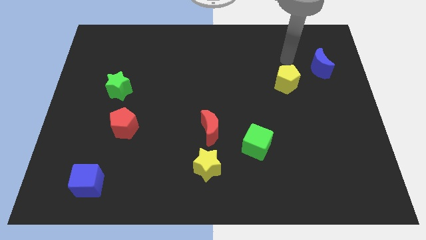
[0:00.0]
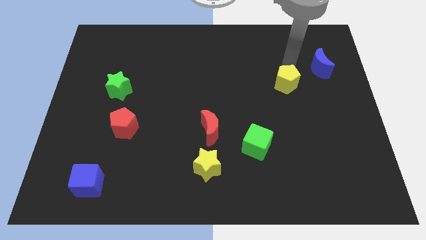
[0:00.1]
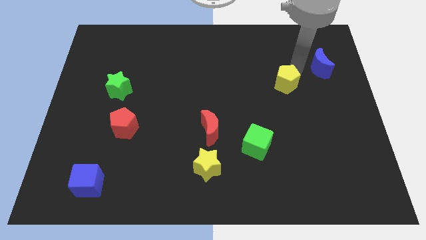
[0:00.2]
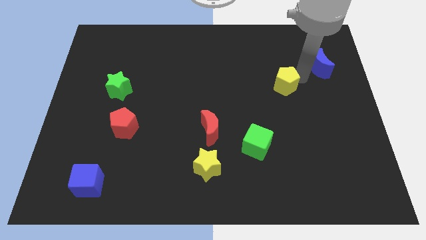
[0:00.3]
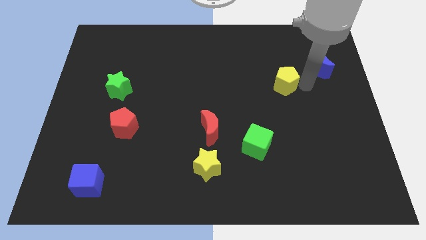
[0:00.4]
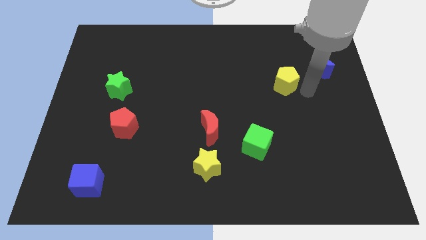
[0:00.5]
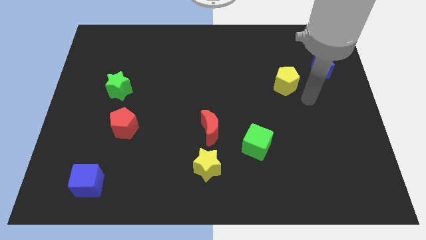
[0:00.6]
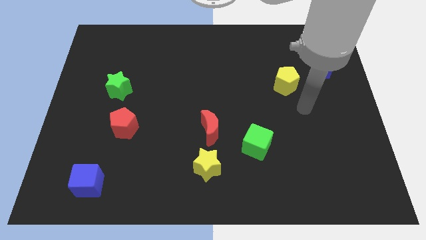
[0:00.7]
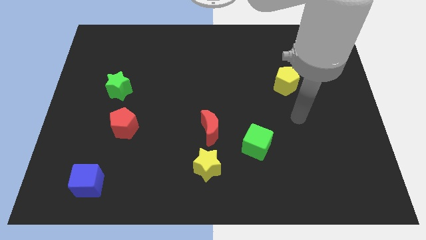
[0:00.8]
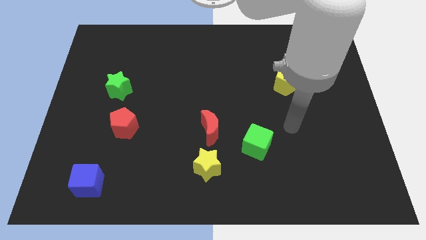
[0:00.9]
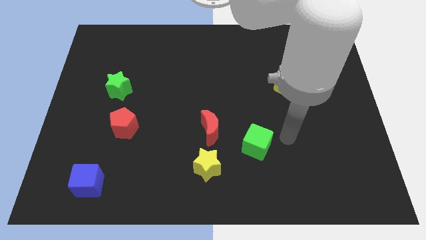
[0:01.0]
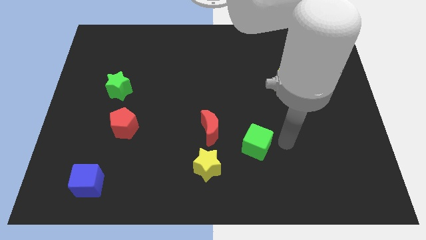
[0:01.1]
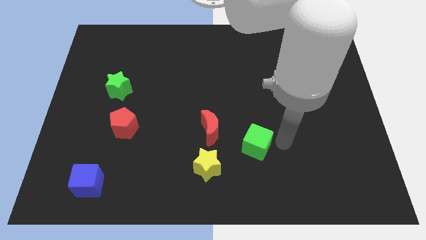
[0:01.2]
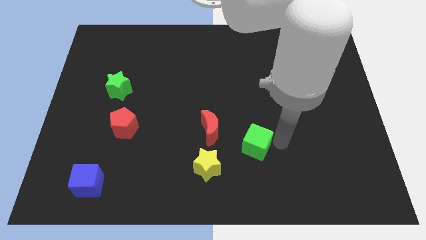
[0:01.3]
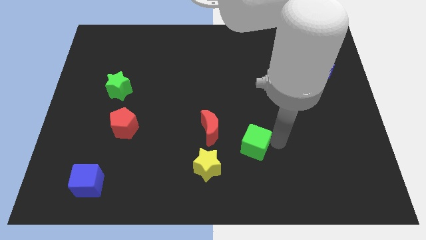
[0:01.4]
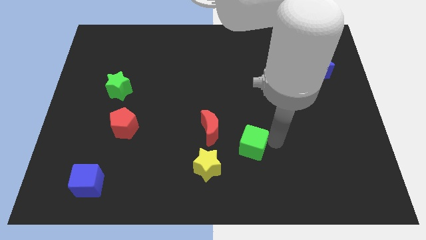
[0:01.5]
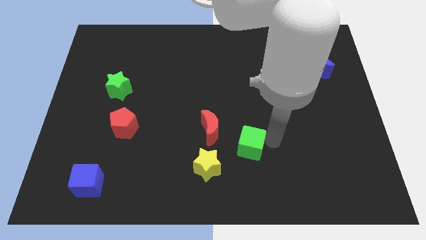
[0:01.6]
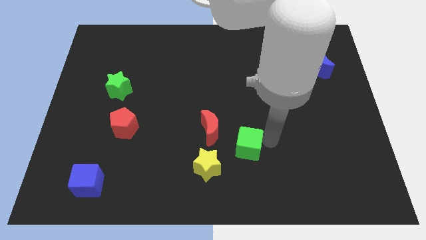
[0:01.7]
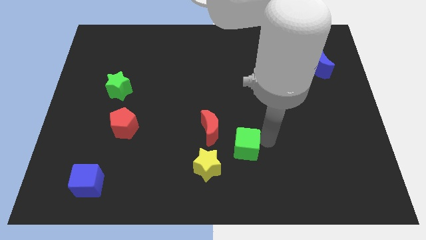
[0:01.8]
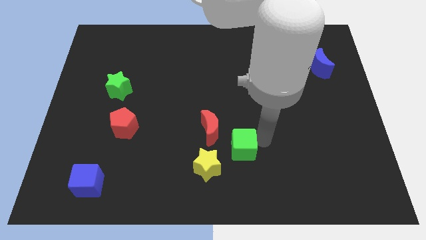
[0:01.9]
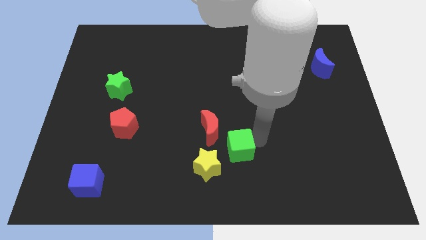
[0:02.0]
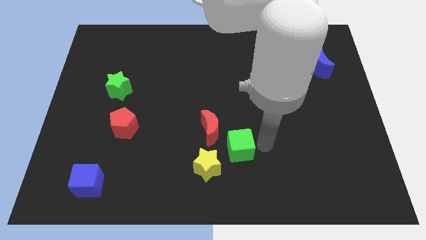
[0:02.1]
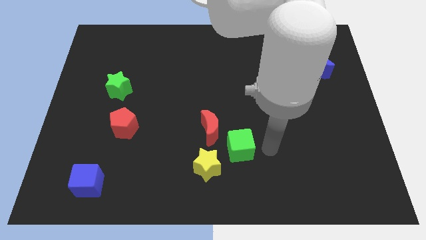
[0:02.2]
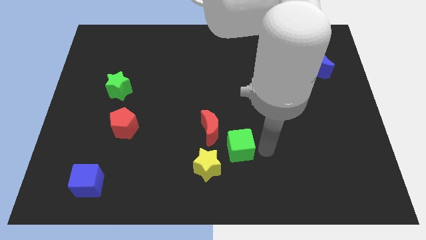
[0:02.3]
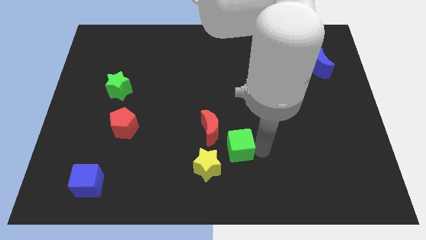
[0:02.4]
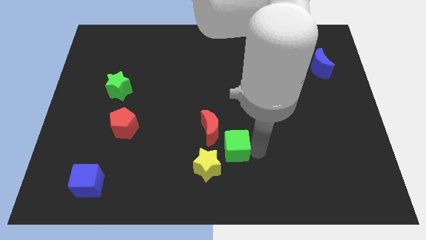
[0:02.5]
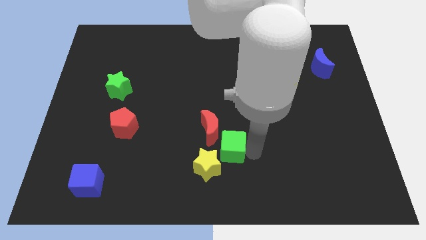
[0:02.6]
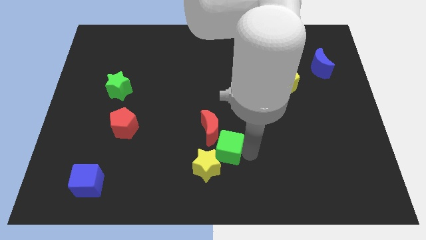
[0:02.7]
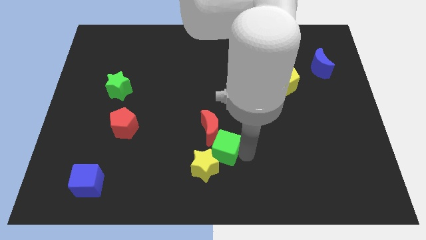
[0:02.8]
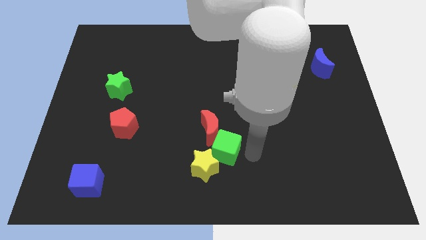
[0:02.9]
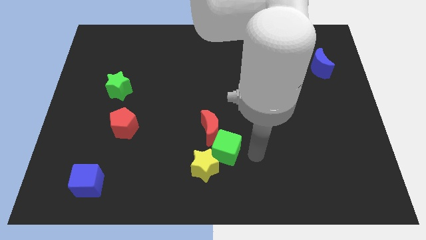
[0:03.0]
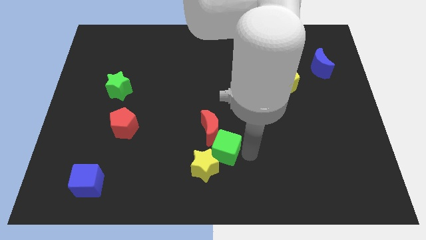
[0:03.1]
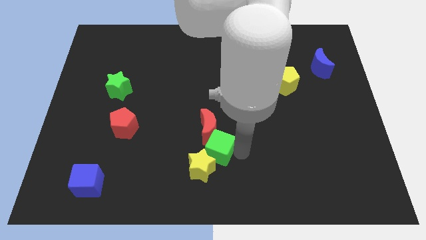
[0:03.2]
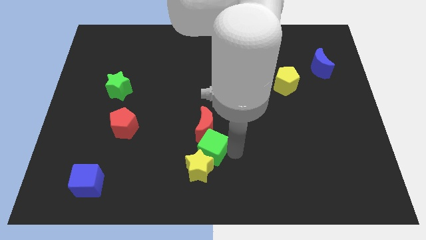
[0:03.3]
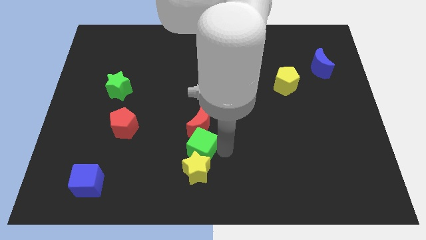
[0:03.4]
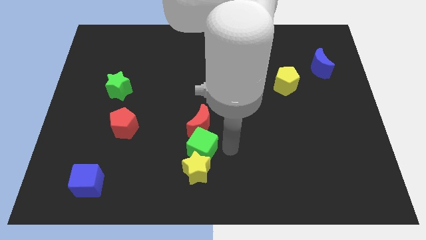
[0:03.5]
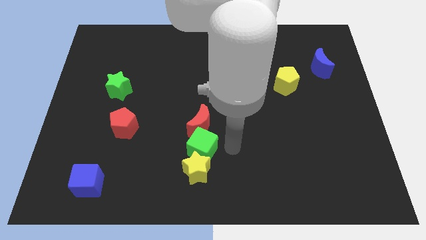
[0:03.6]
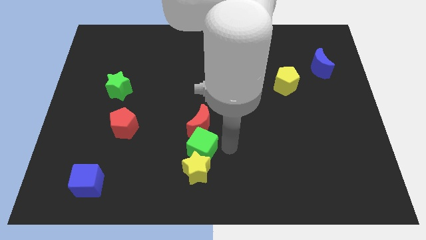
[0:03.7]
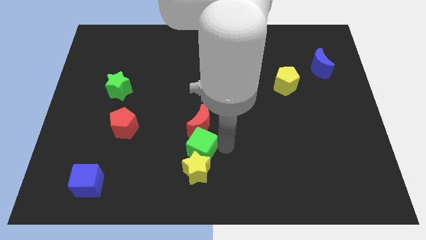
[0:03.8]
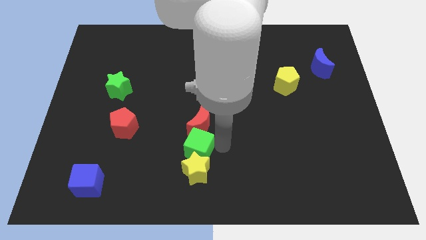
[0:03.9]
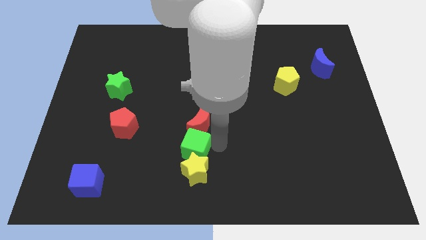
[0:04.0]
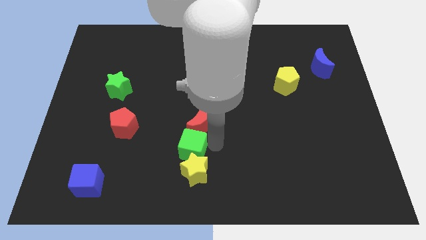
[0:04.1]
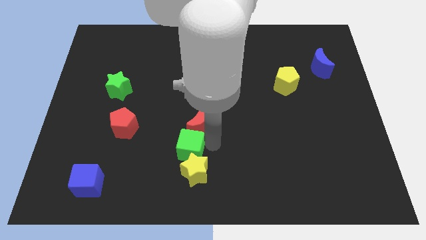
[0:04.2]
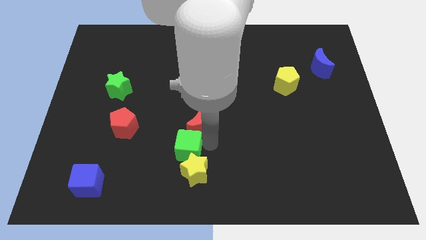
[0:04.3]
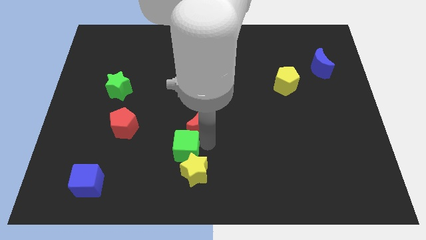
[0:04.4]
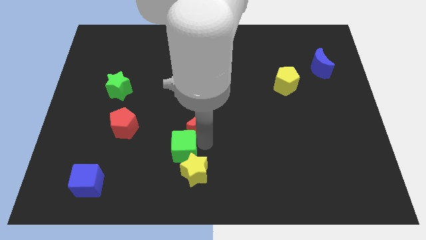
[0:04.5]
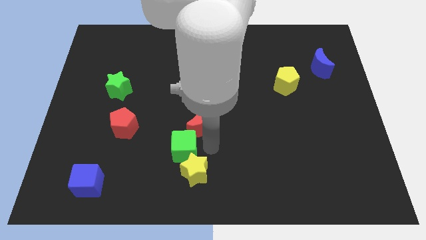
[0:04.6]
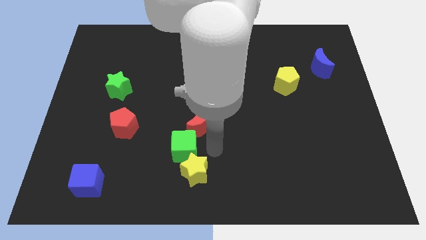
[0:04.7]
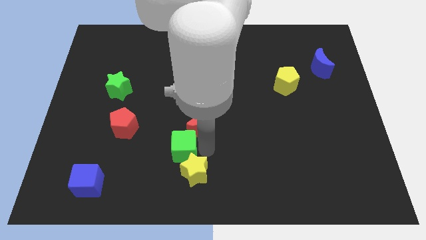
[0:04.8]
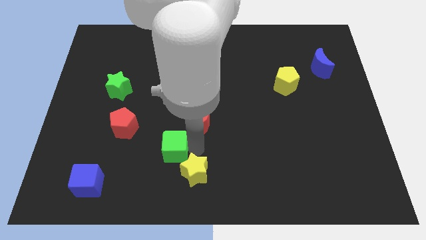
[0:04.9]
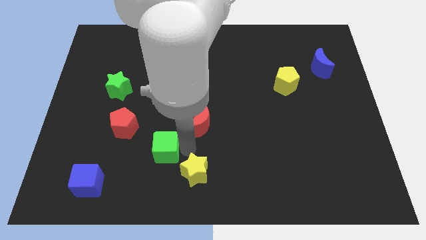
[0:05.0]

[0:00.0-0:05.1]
slide the green cube to the bottom right side of the red pentagon

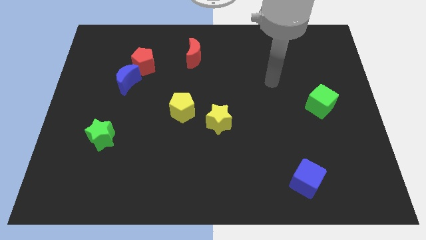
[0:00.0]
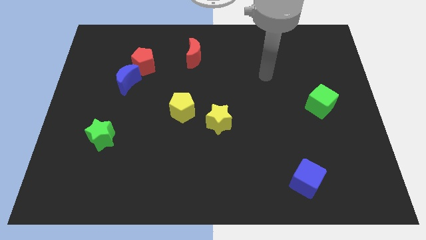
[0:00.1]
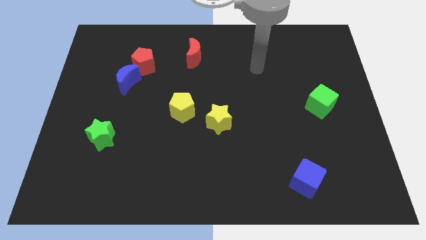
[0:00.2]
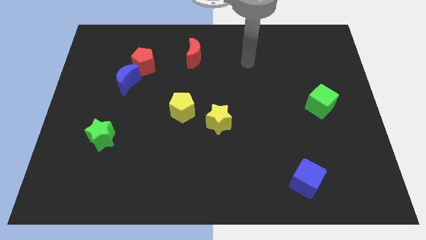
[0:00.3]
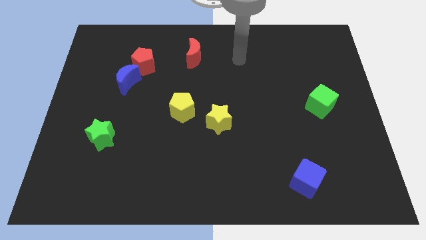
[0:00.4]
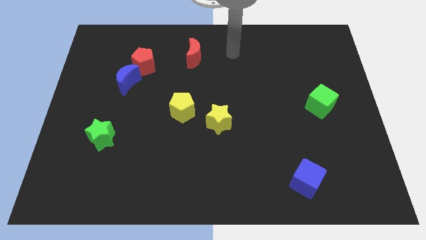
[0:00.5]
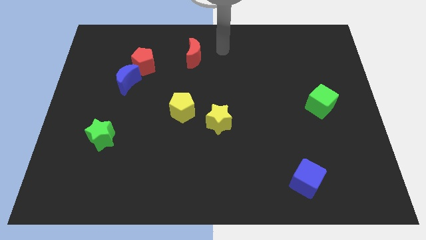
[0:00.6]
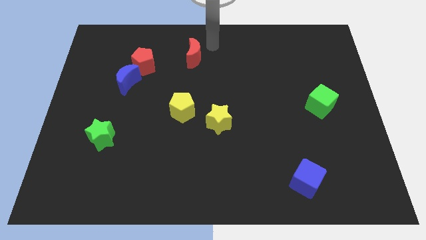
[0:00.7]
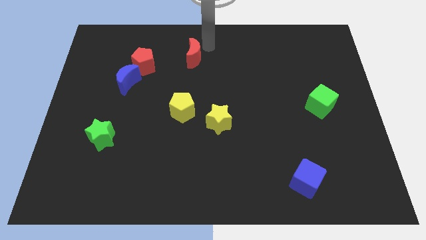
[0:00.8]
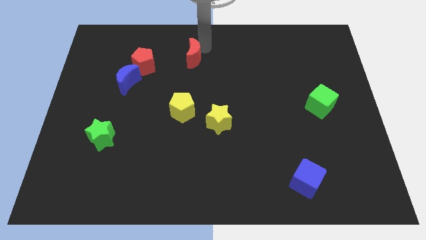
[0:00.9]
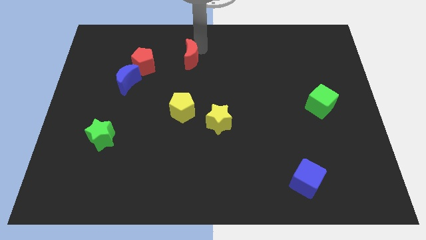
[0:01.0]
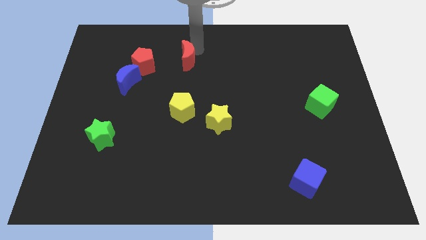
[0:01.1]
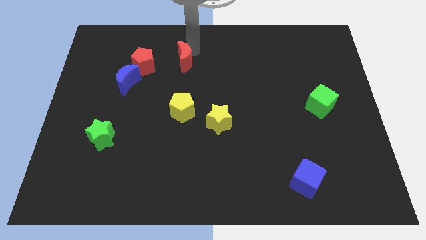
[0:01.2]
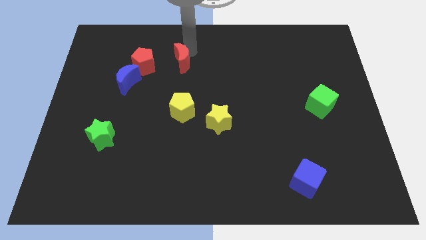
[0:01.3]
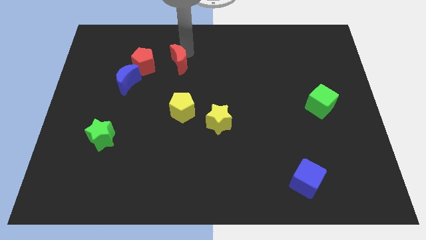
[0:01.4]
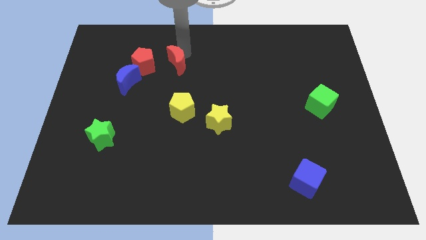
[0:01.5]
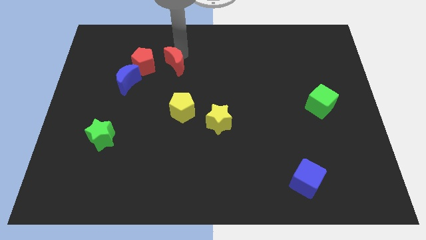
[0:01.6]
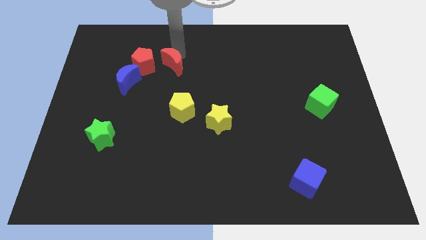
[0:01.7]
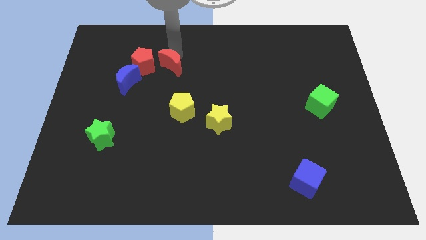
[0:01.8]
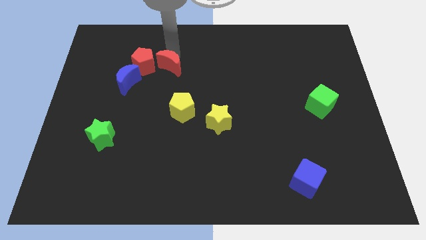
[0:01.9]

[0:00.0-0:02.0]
push the red moon to the bottom right of the red pentagon

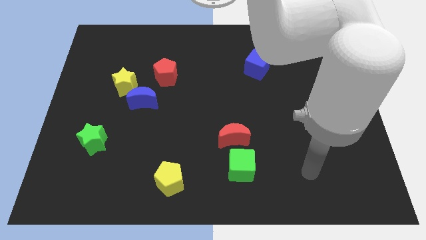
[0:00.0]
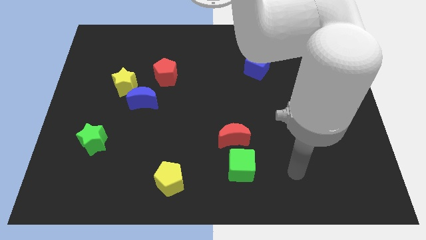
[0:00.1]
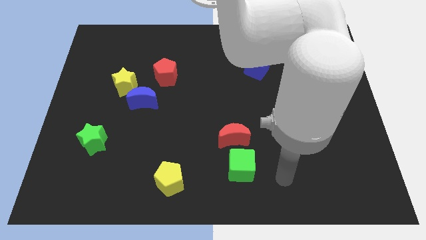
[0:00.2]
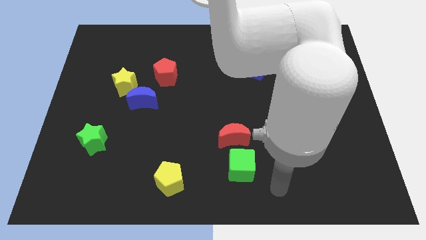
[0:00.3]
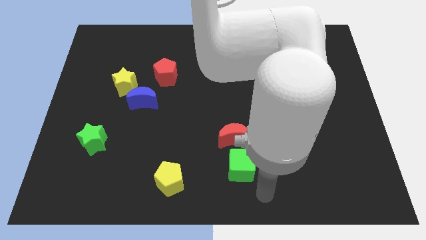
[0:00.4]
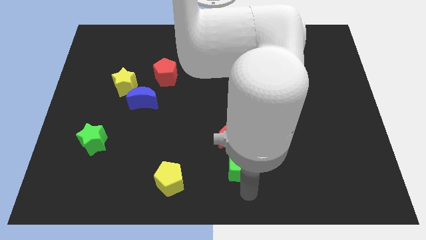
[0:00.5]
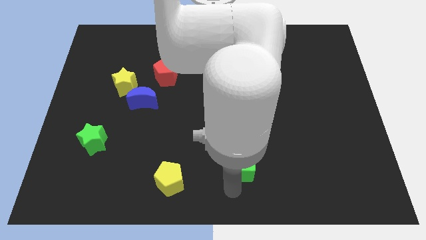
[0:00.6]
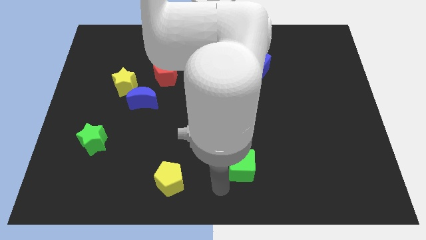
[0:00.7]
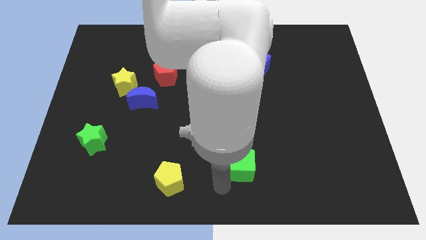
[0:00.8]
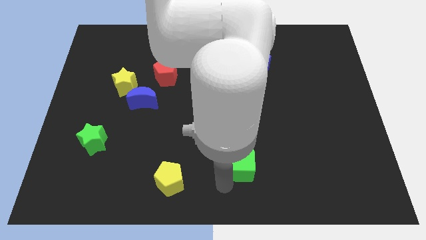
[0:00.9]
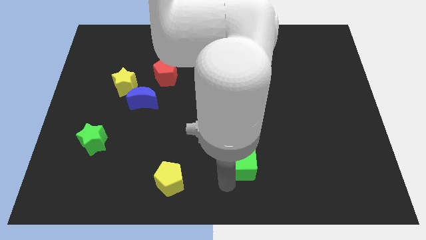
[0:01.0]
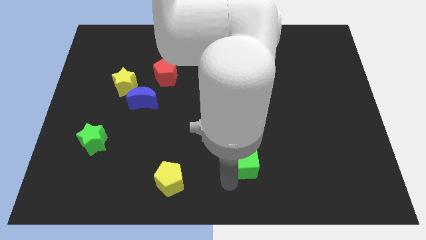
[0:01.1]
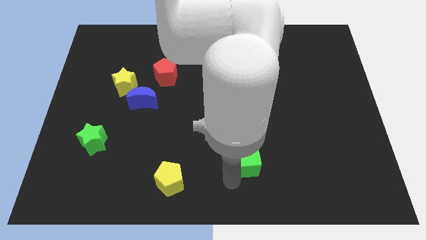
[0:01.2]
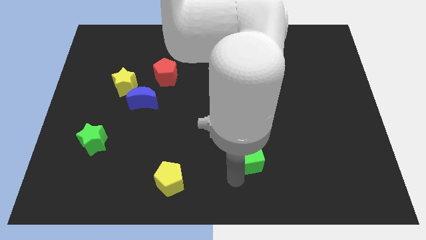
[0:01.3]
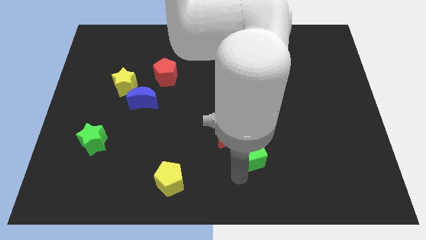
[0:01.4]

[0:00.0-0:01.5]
slide the green cube right of the red moon
